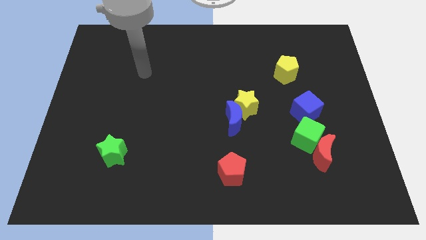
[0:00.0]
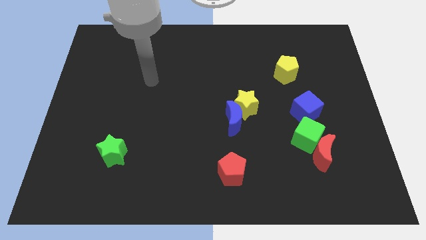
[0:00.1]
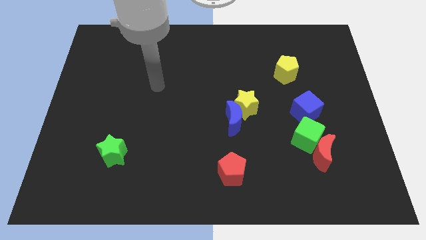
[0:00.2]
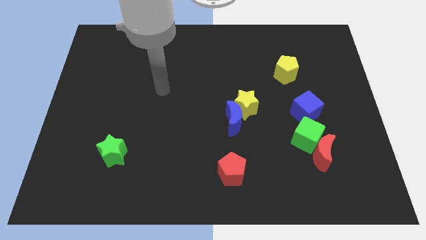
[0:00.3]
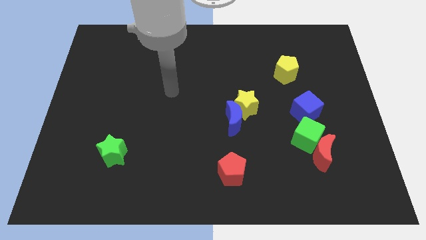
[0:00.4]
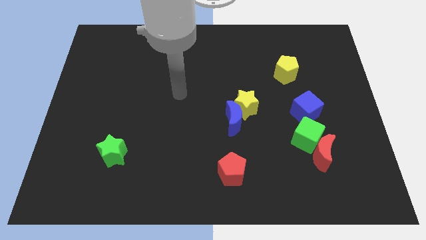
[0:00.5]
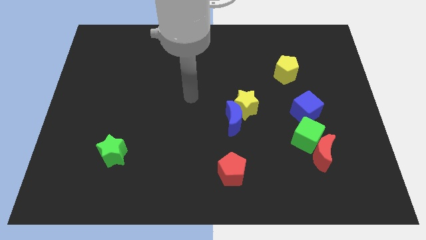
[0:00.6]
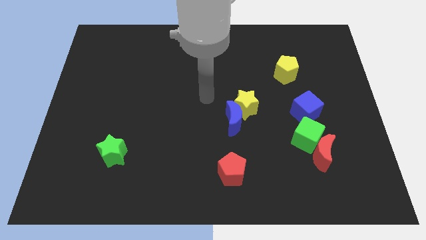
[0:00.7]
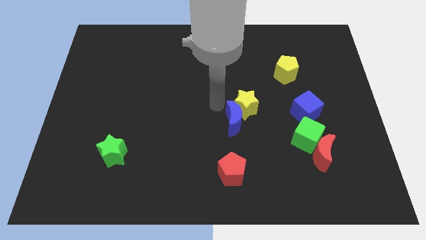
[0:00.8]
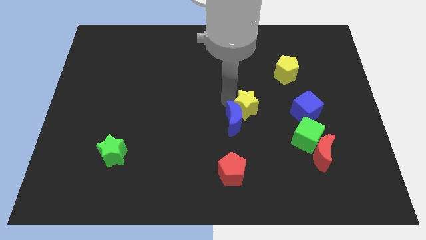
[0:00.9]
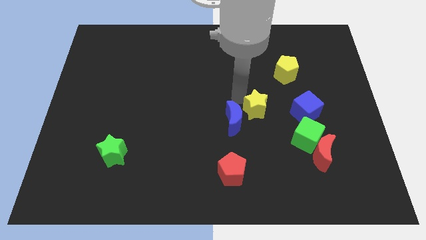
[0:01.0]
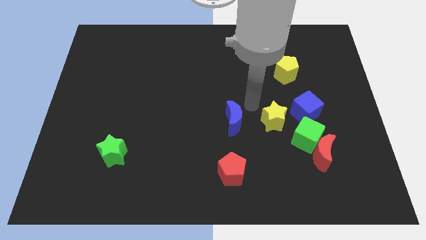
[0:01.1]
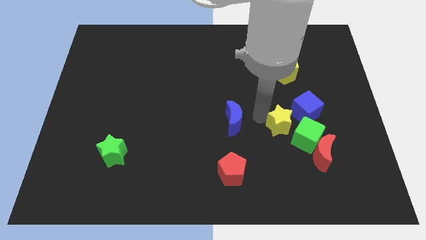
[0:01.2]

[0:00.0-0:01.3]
move the blue moon away from the yellow star

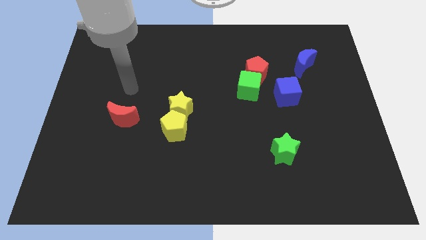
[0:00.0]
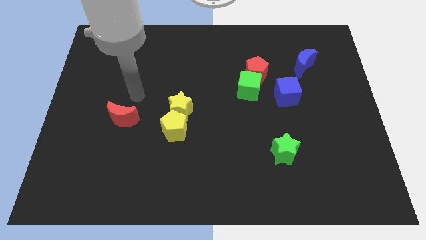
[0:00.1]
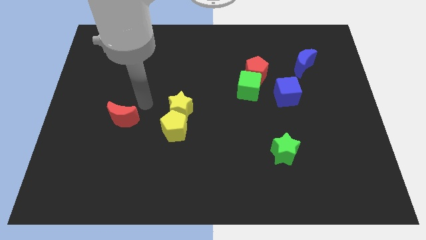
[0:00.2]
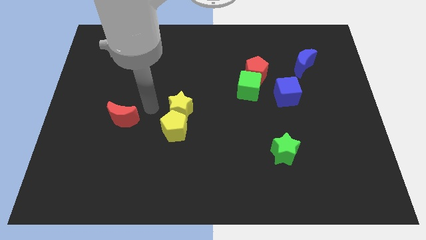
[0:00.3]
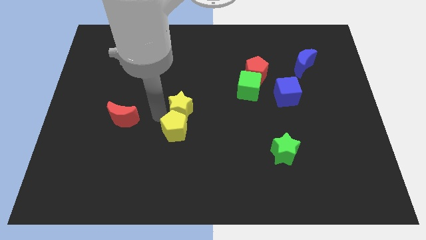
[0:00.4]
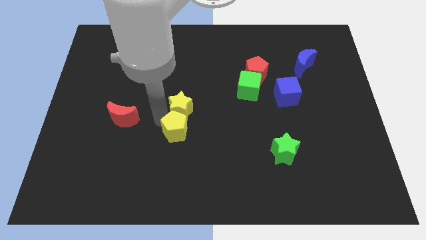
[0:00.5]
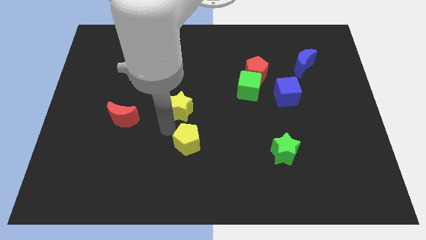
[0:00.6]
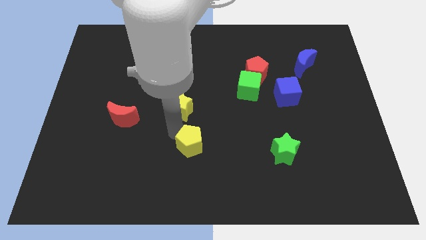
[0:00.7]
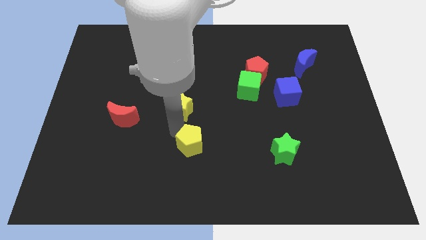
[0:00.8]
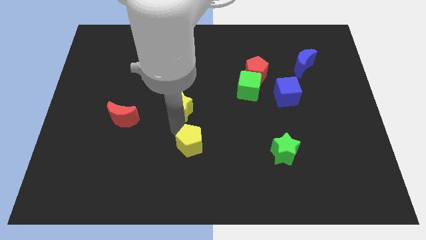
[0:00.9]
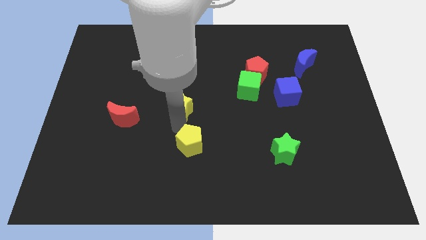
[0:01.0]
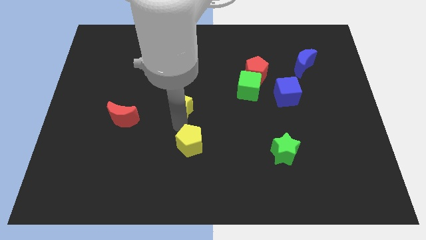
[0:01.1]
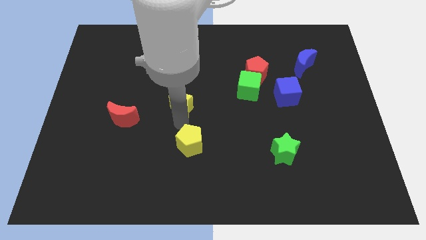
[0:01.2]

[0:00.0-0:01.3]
move the yellow star away from the yellow pentagon

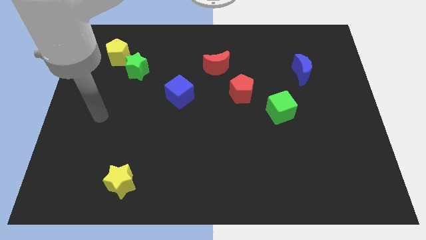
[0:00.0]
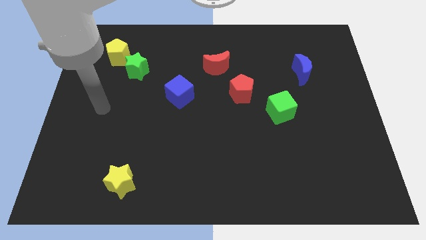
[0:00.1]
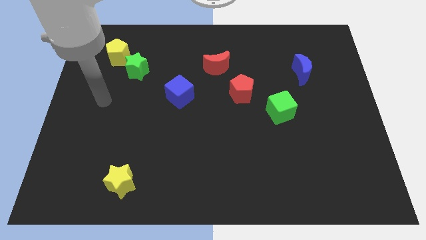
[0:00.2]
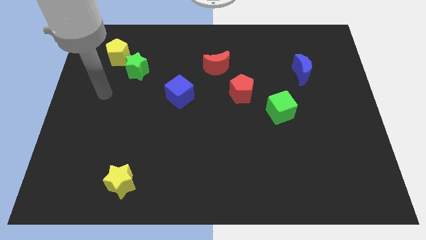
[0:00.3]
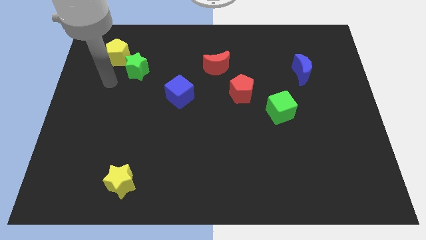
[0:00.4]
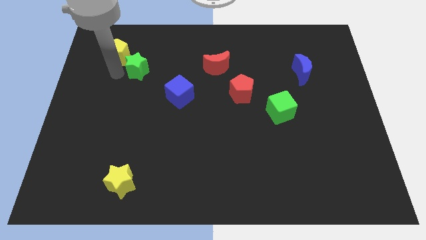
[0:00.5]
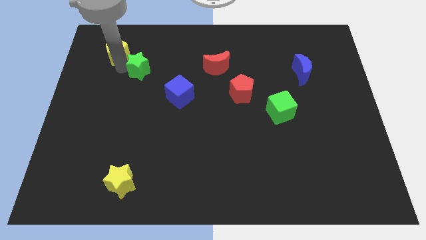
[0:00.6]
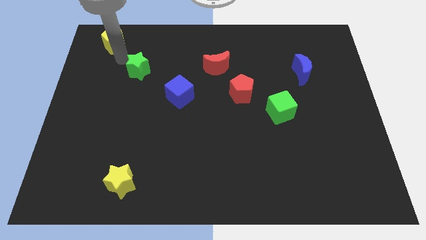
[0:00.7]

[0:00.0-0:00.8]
move the green star away from the yellow pentagon

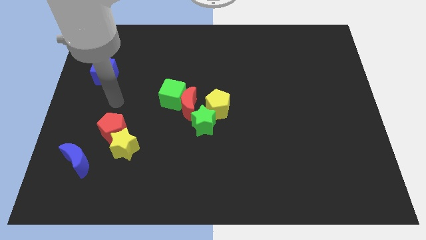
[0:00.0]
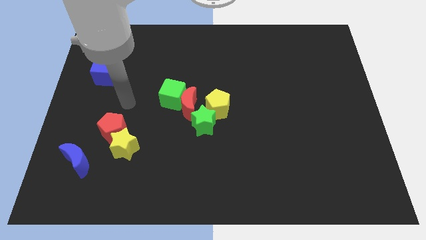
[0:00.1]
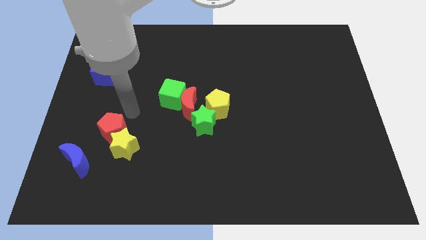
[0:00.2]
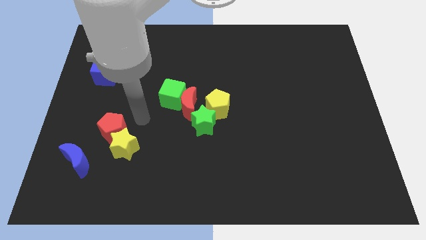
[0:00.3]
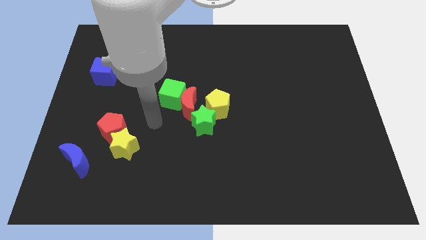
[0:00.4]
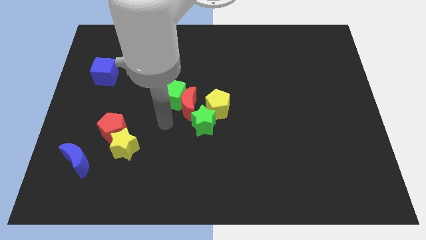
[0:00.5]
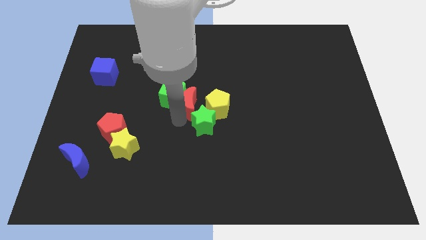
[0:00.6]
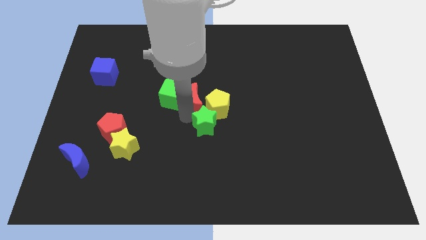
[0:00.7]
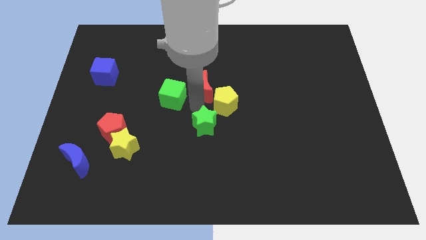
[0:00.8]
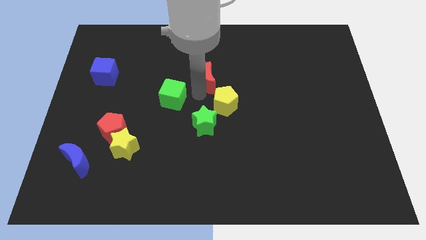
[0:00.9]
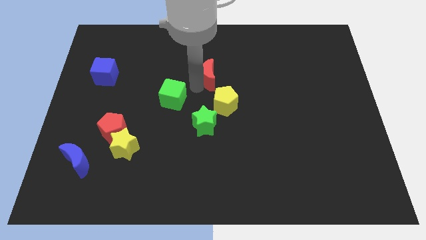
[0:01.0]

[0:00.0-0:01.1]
separate the green cube from the red moon

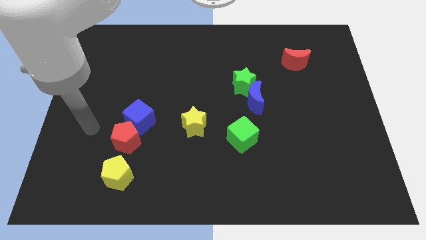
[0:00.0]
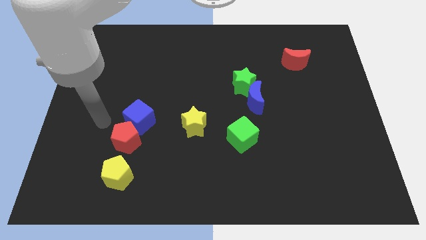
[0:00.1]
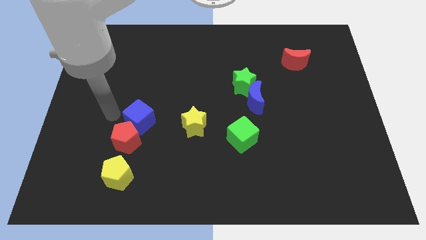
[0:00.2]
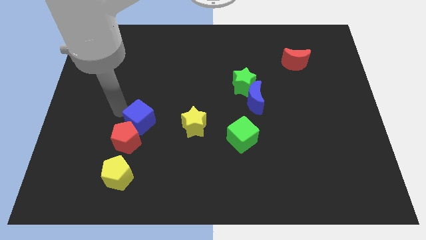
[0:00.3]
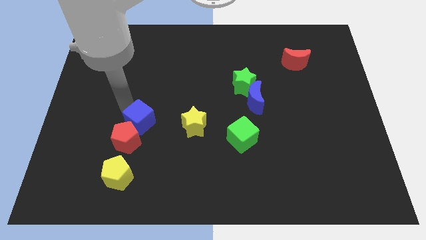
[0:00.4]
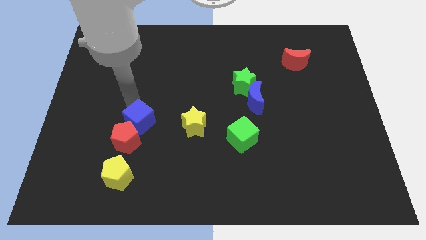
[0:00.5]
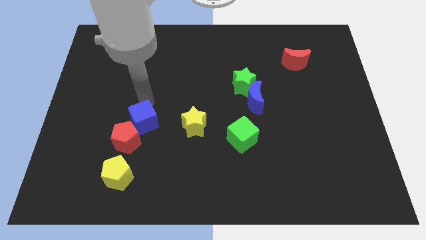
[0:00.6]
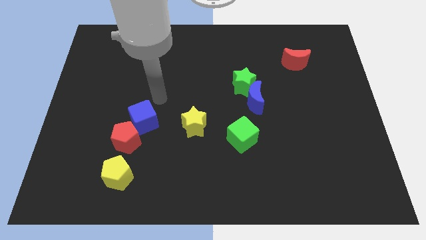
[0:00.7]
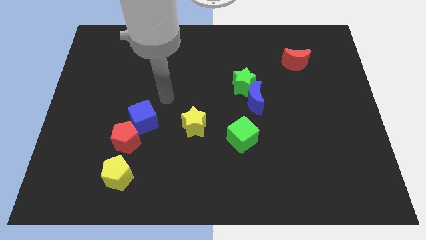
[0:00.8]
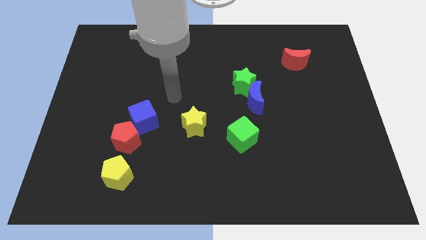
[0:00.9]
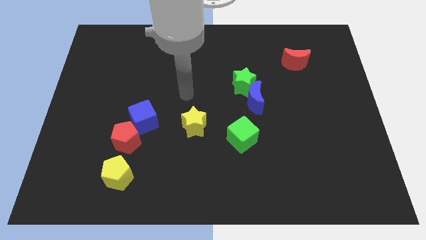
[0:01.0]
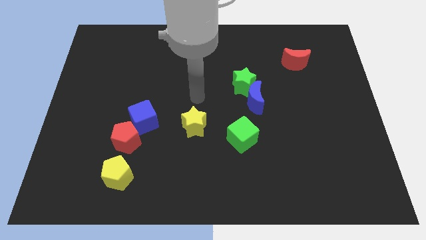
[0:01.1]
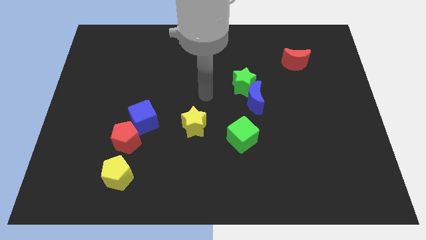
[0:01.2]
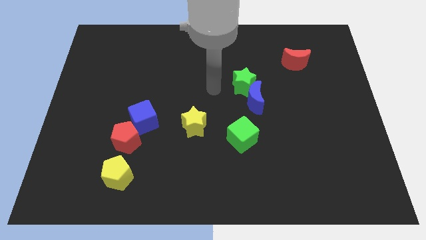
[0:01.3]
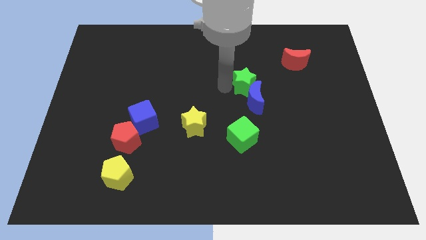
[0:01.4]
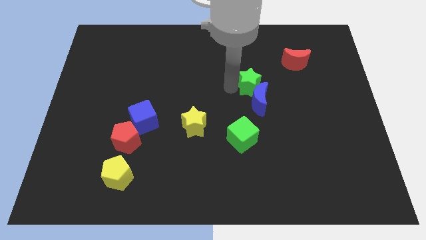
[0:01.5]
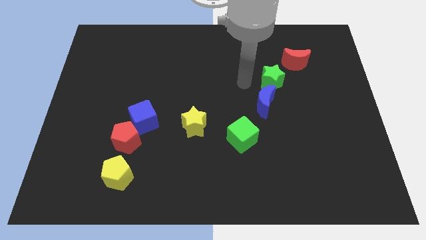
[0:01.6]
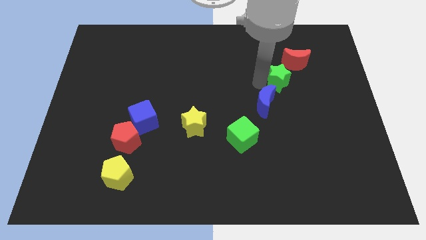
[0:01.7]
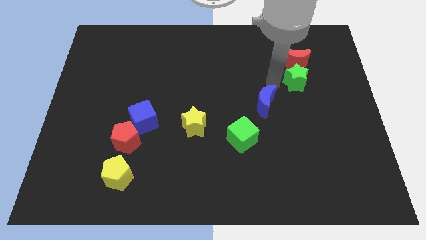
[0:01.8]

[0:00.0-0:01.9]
separate the blue moon from the green star

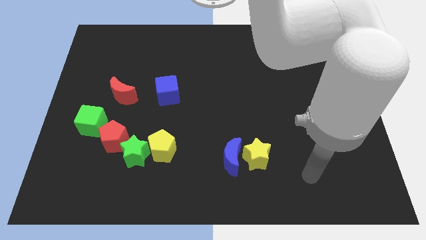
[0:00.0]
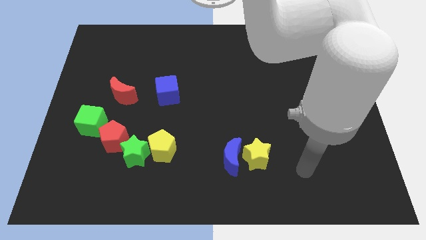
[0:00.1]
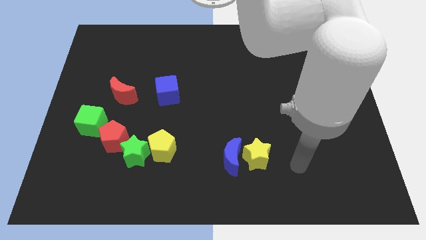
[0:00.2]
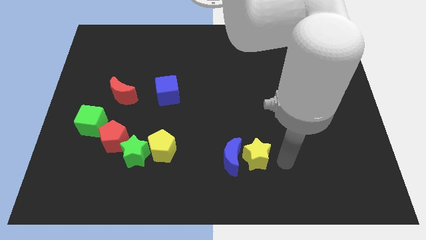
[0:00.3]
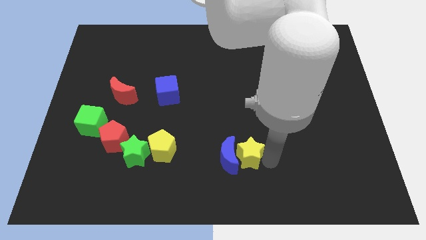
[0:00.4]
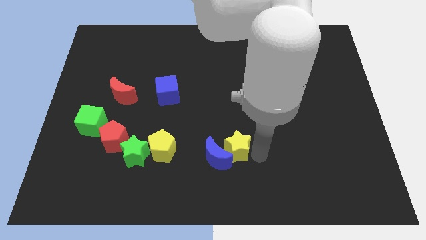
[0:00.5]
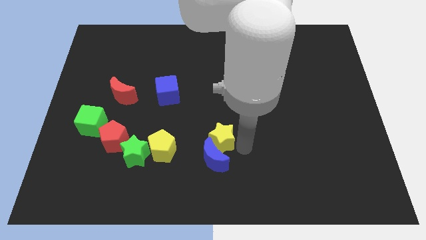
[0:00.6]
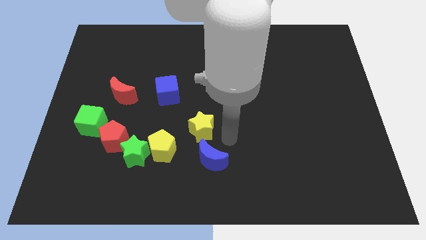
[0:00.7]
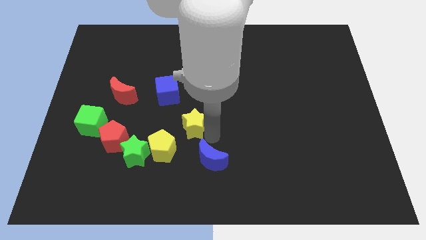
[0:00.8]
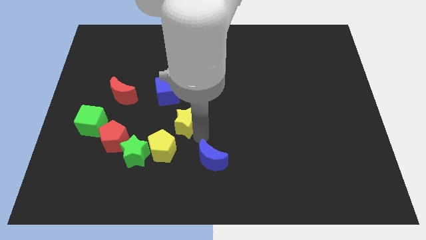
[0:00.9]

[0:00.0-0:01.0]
pull the blue moon apart from the yellow star

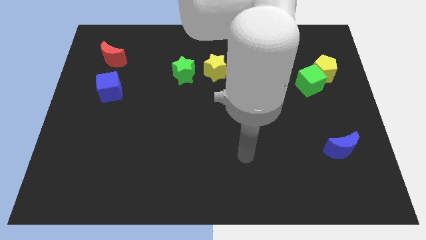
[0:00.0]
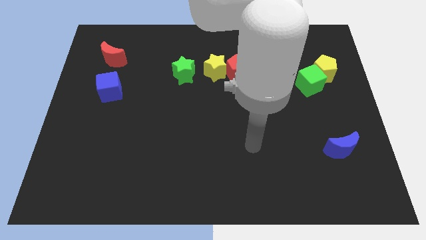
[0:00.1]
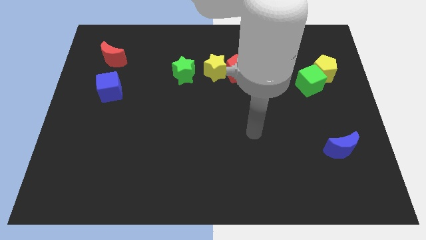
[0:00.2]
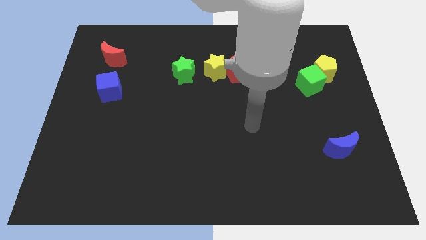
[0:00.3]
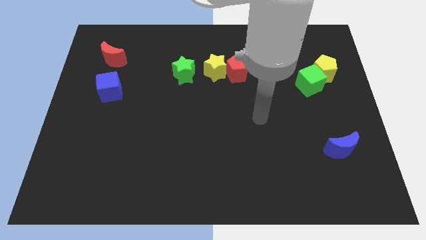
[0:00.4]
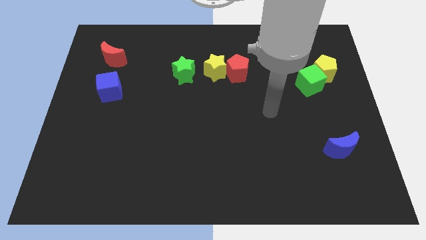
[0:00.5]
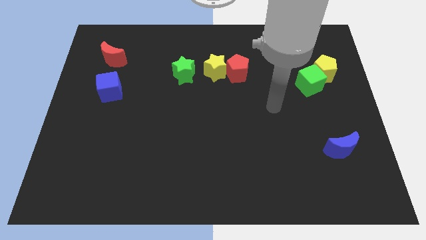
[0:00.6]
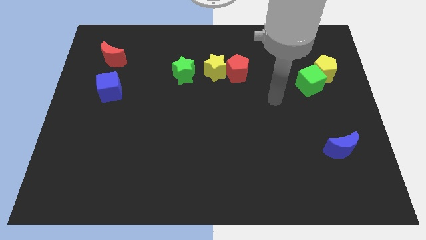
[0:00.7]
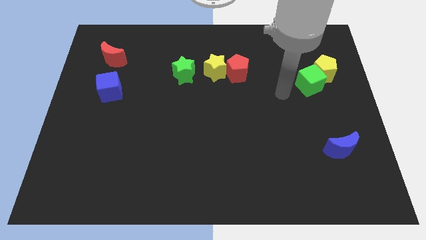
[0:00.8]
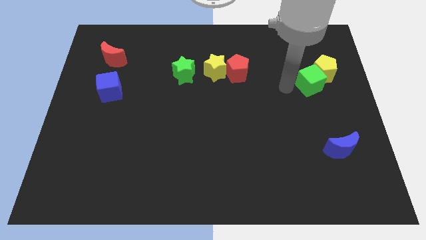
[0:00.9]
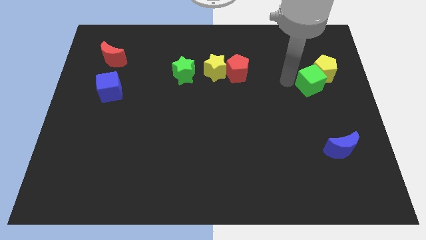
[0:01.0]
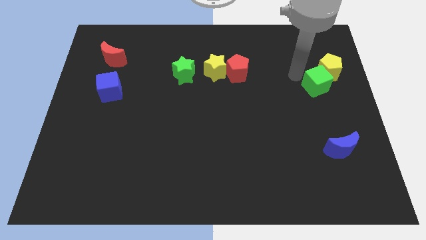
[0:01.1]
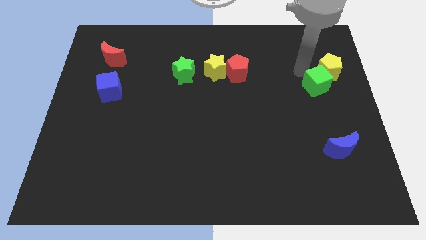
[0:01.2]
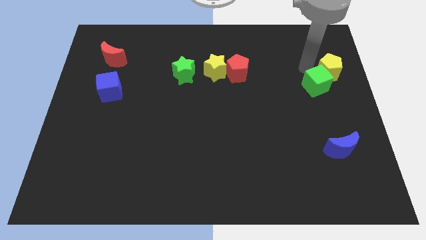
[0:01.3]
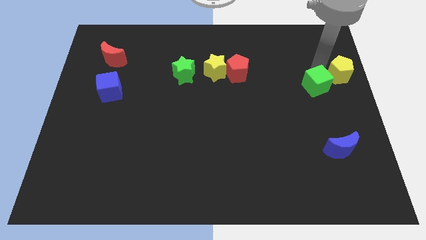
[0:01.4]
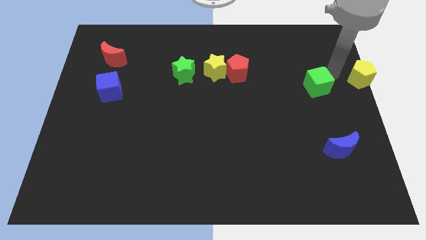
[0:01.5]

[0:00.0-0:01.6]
pull the green cube apart from the yellow pentagon
